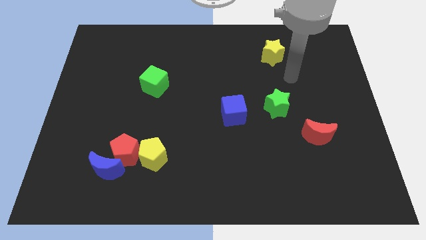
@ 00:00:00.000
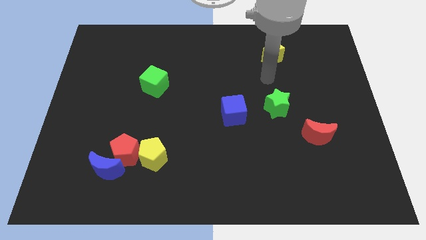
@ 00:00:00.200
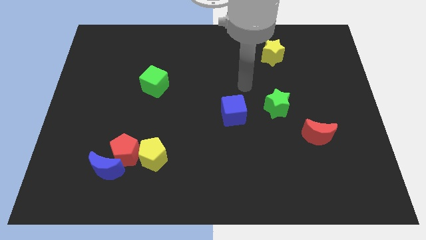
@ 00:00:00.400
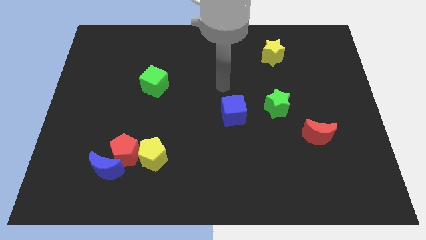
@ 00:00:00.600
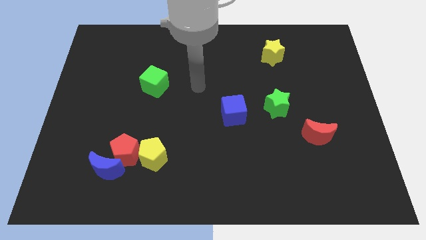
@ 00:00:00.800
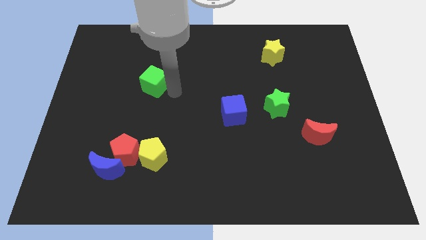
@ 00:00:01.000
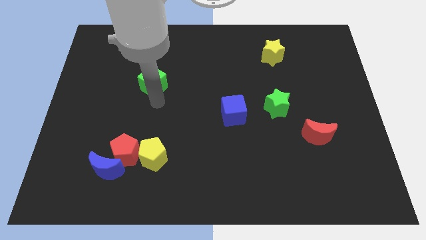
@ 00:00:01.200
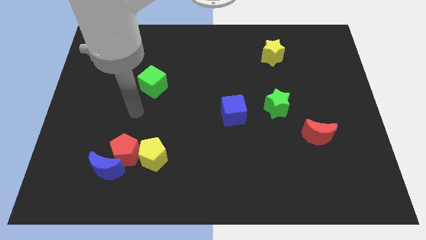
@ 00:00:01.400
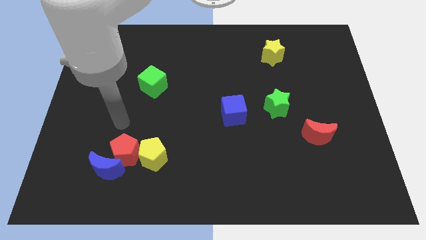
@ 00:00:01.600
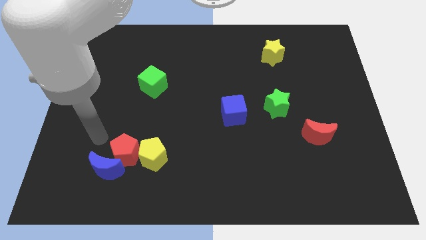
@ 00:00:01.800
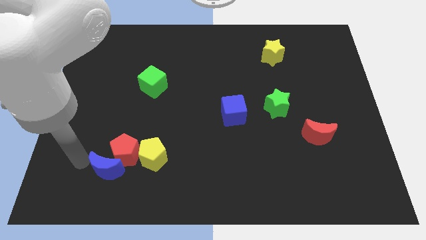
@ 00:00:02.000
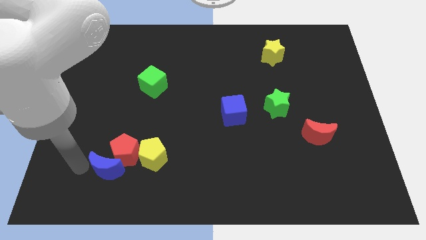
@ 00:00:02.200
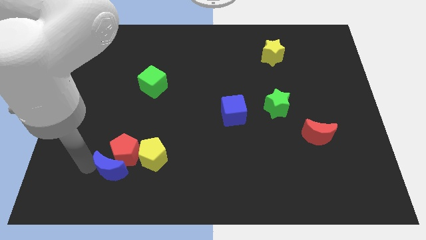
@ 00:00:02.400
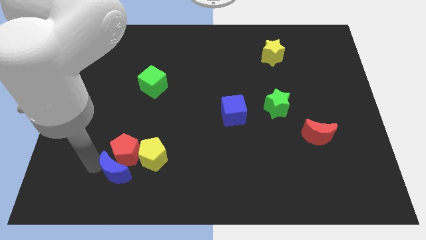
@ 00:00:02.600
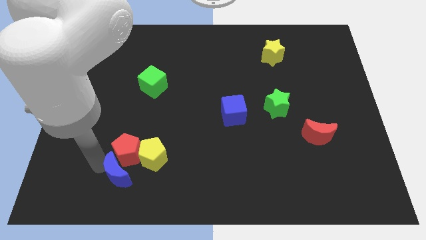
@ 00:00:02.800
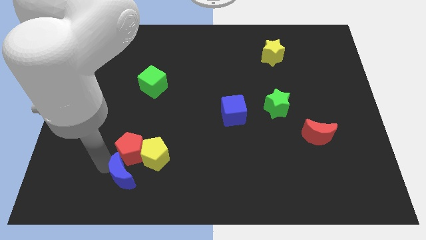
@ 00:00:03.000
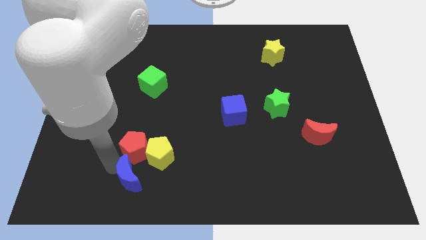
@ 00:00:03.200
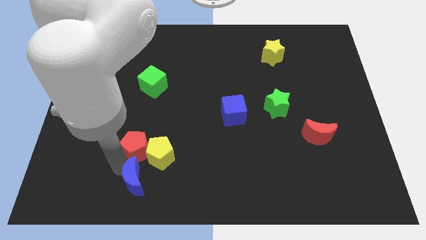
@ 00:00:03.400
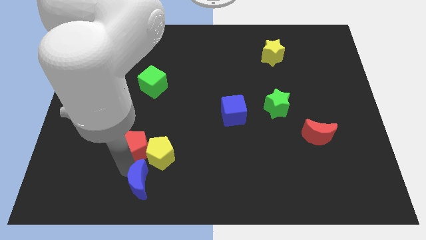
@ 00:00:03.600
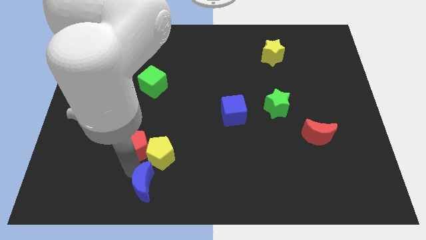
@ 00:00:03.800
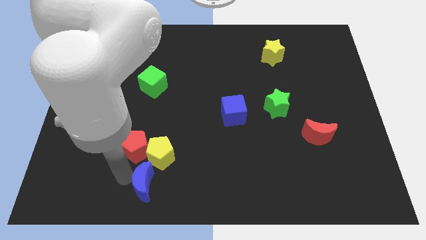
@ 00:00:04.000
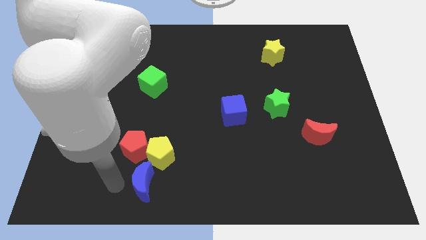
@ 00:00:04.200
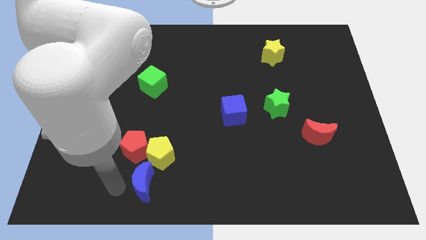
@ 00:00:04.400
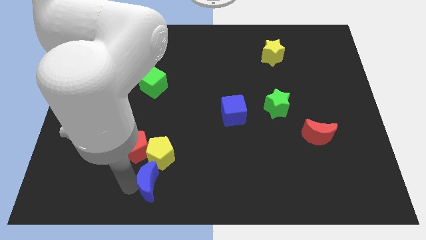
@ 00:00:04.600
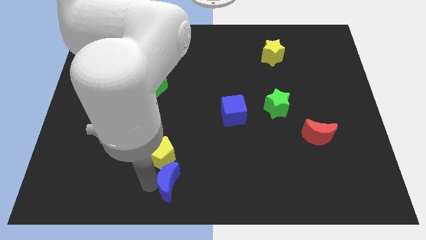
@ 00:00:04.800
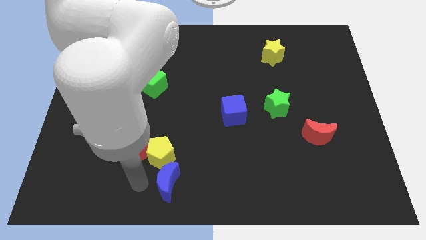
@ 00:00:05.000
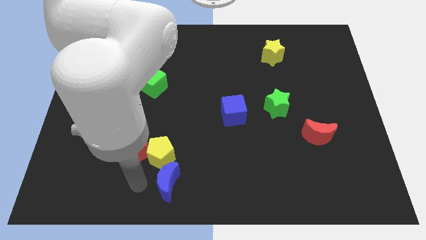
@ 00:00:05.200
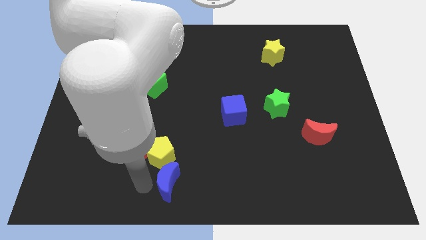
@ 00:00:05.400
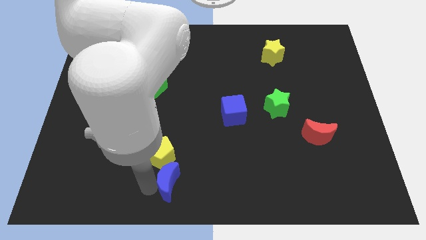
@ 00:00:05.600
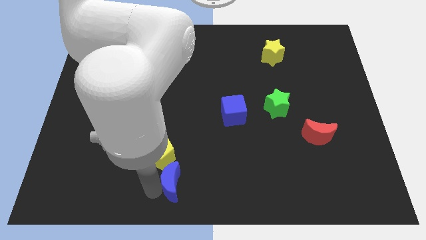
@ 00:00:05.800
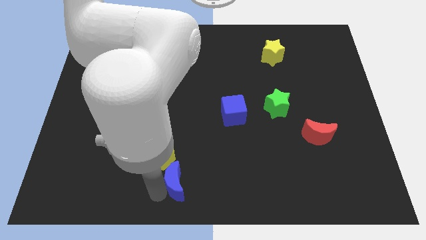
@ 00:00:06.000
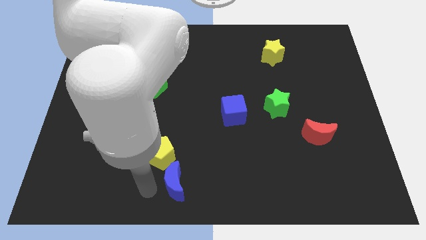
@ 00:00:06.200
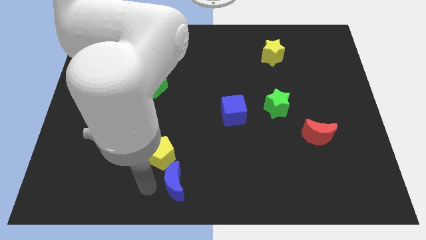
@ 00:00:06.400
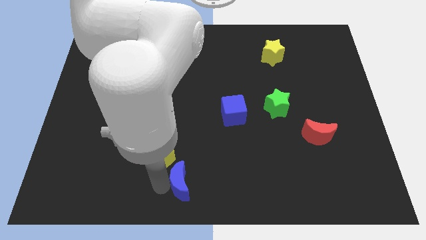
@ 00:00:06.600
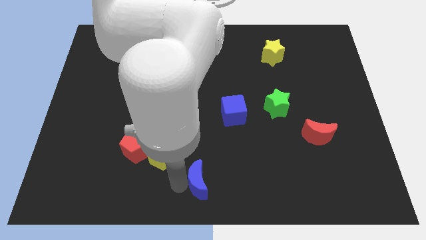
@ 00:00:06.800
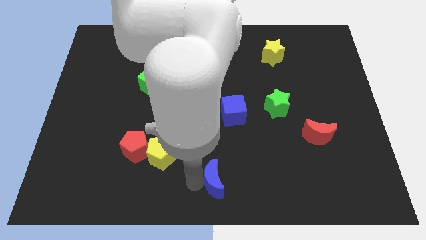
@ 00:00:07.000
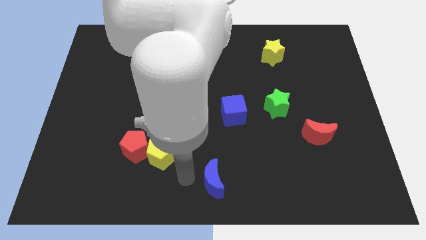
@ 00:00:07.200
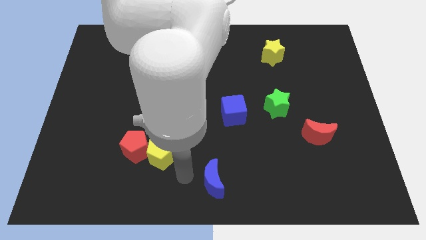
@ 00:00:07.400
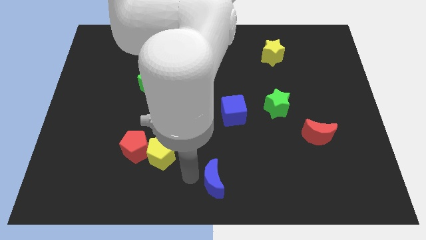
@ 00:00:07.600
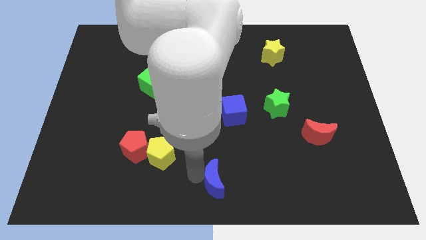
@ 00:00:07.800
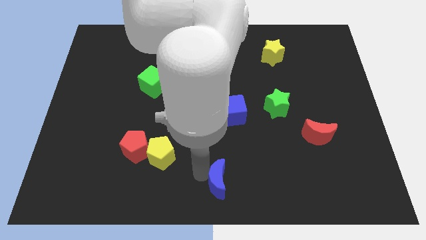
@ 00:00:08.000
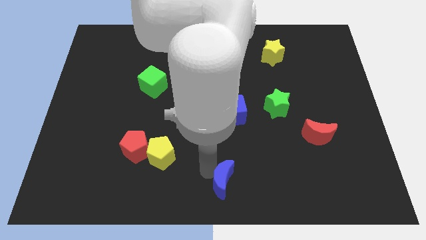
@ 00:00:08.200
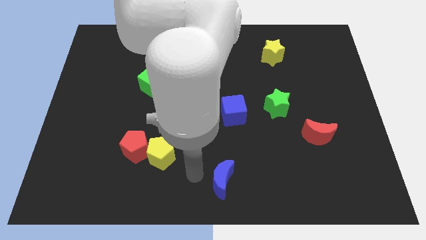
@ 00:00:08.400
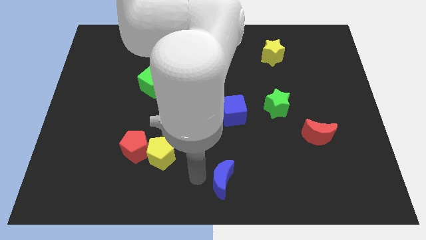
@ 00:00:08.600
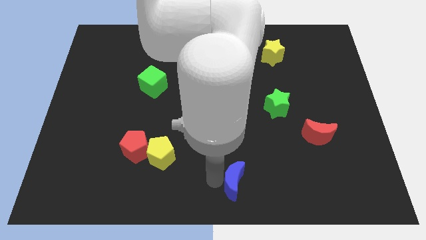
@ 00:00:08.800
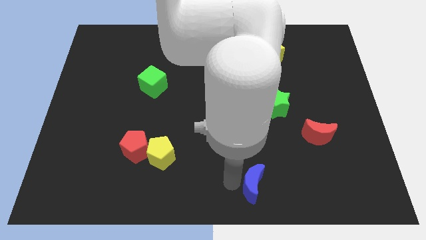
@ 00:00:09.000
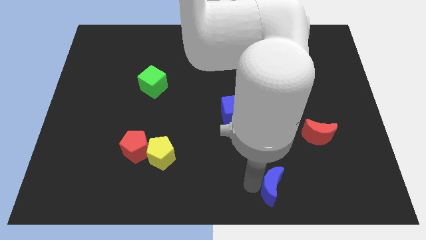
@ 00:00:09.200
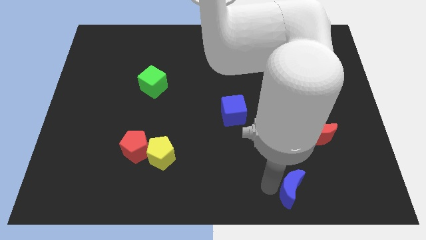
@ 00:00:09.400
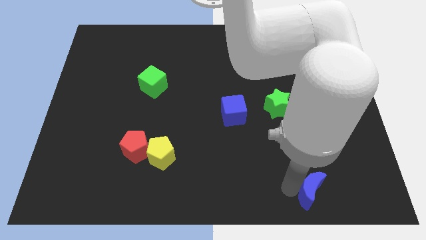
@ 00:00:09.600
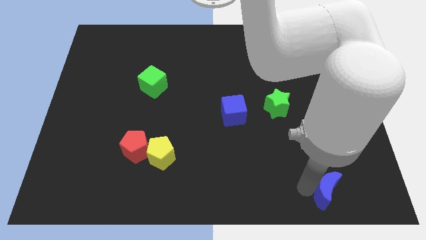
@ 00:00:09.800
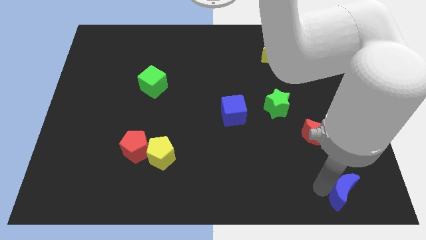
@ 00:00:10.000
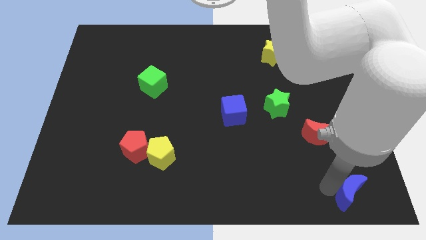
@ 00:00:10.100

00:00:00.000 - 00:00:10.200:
move the blue moon to the bottom right of the board

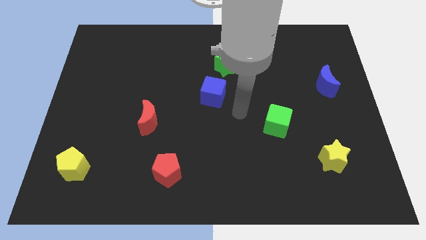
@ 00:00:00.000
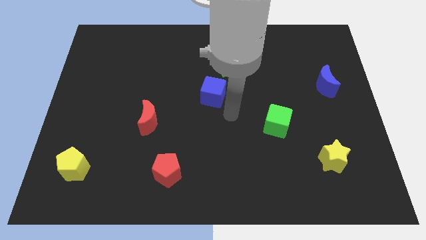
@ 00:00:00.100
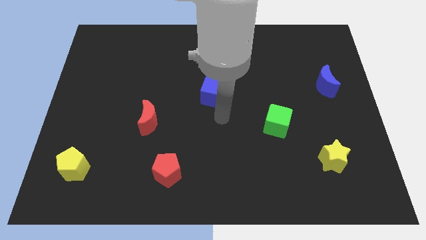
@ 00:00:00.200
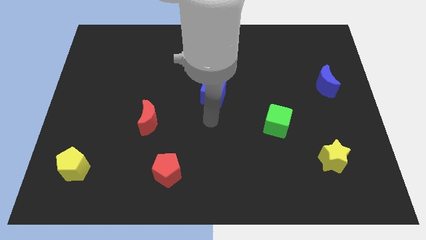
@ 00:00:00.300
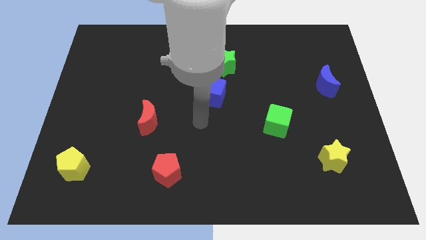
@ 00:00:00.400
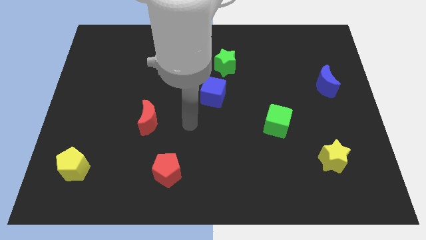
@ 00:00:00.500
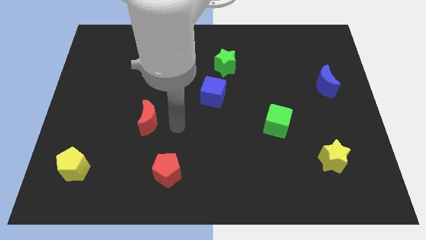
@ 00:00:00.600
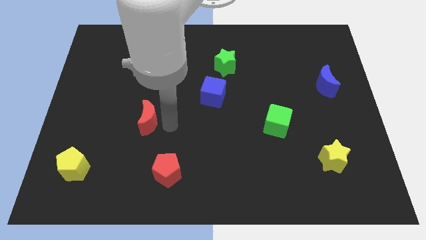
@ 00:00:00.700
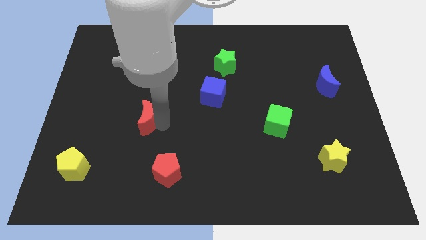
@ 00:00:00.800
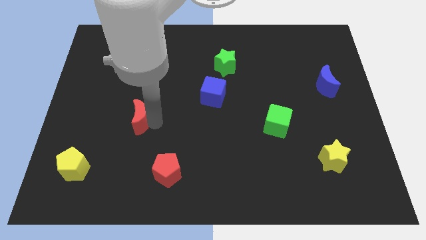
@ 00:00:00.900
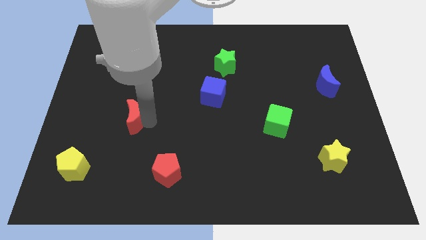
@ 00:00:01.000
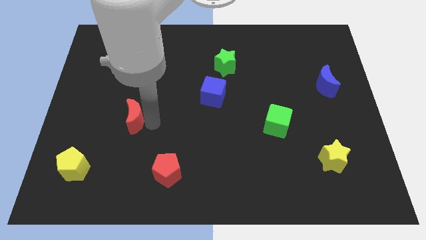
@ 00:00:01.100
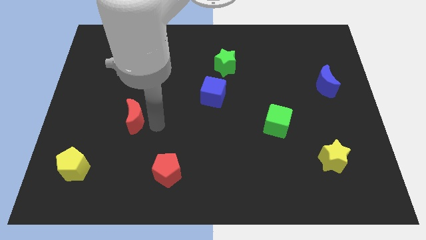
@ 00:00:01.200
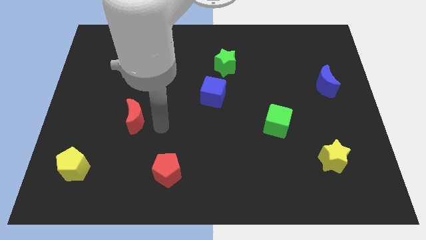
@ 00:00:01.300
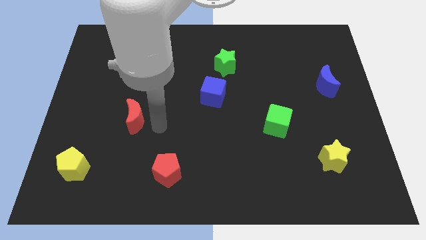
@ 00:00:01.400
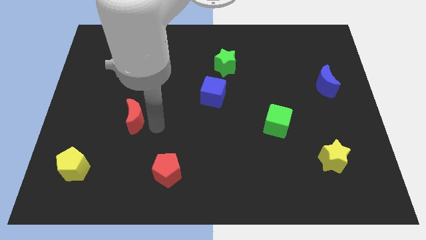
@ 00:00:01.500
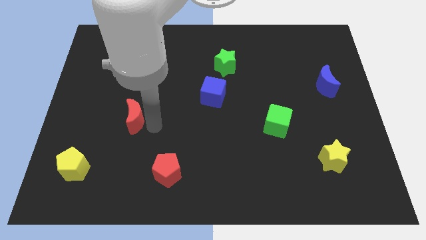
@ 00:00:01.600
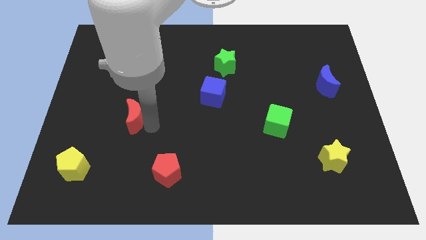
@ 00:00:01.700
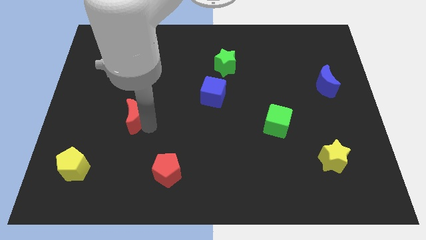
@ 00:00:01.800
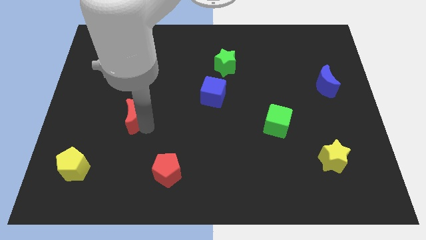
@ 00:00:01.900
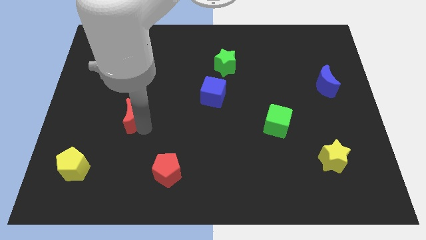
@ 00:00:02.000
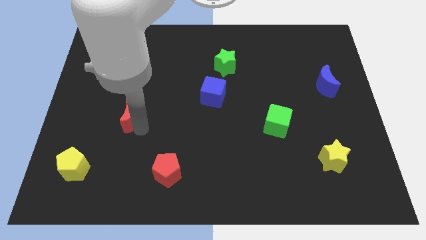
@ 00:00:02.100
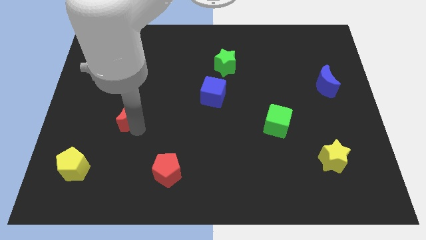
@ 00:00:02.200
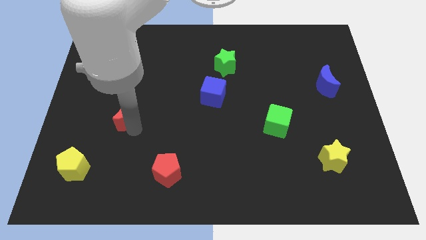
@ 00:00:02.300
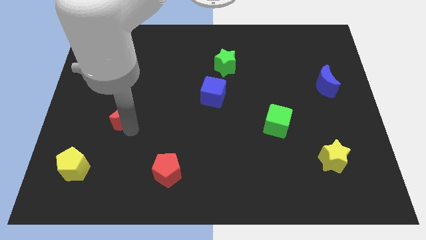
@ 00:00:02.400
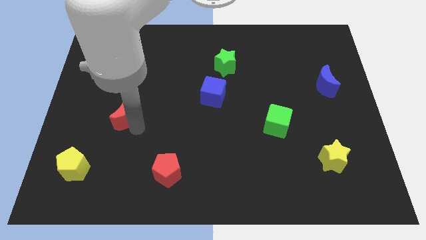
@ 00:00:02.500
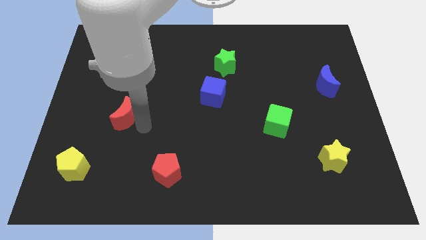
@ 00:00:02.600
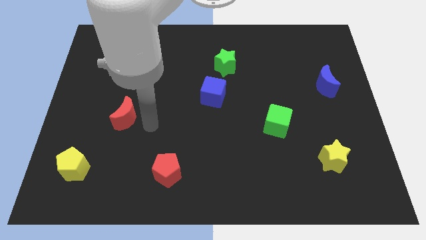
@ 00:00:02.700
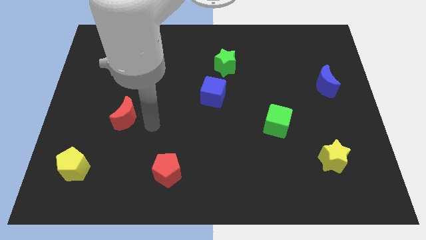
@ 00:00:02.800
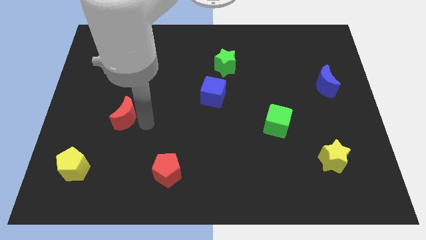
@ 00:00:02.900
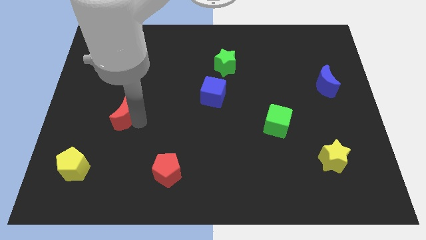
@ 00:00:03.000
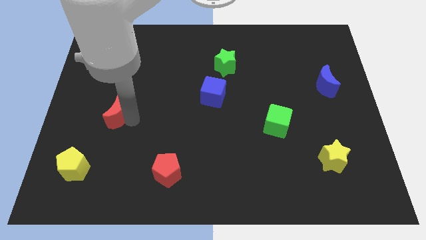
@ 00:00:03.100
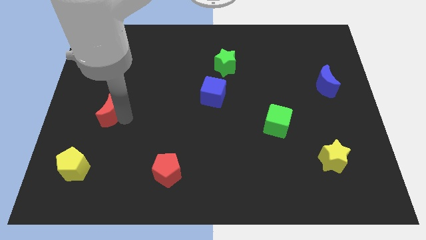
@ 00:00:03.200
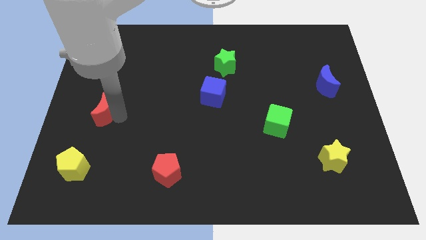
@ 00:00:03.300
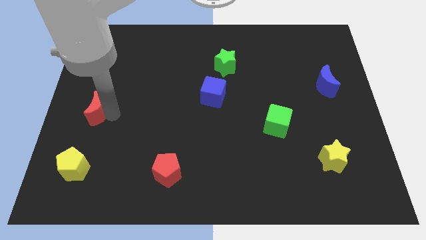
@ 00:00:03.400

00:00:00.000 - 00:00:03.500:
push the red moon to the center left
